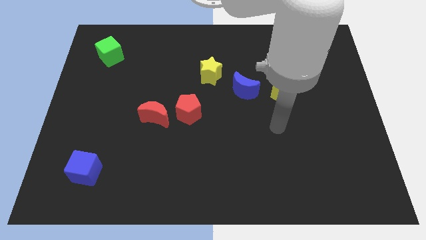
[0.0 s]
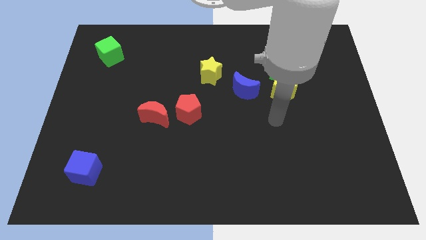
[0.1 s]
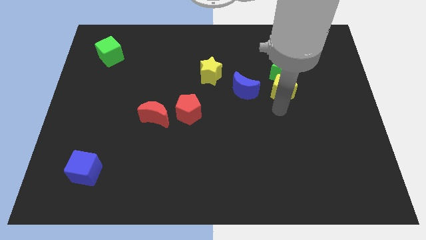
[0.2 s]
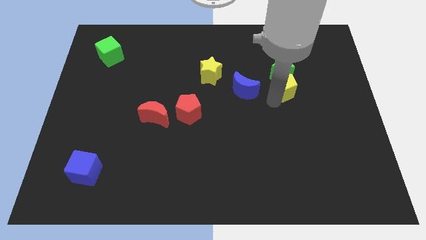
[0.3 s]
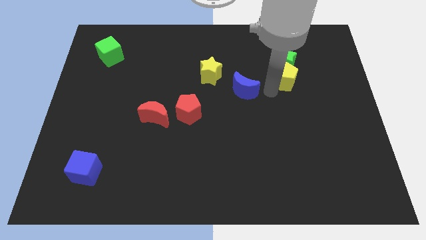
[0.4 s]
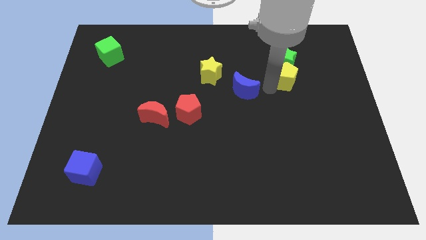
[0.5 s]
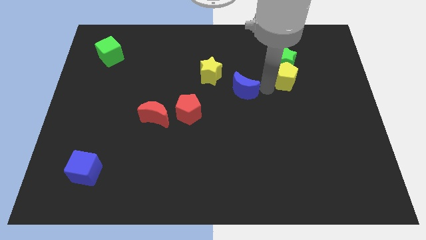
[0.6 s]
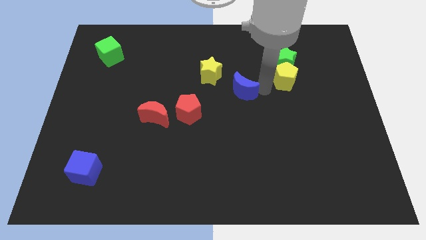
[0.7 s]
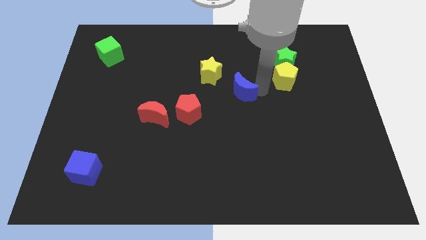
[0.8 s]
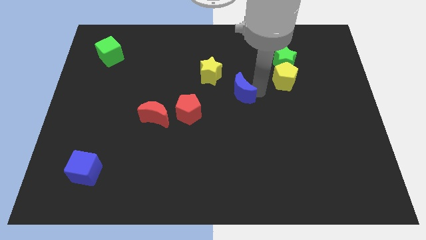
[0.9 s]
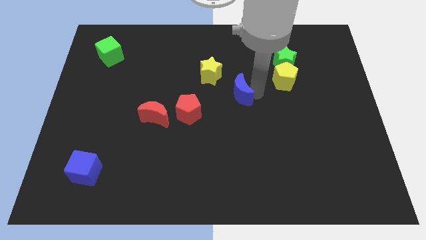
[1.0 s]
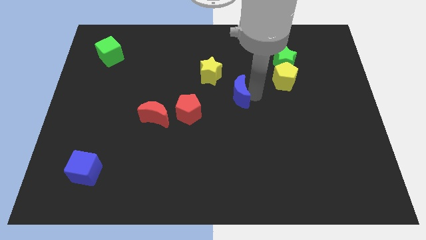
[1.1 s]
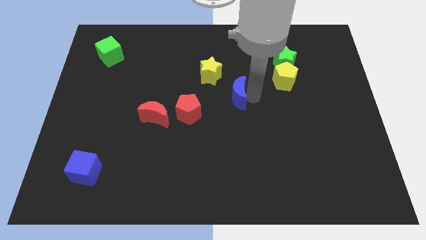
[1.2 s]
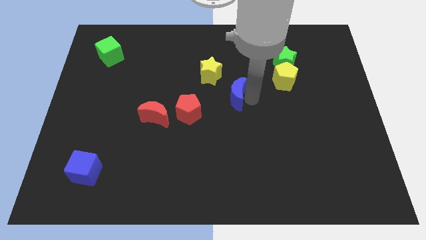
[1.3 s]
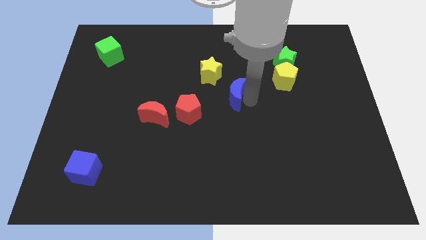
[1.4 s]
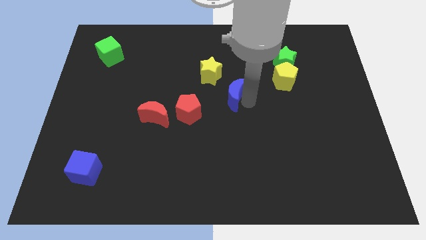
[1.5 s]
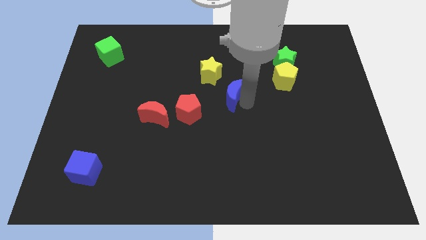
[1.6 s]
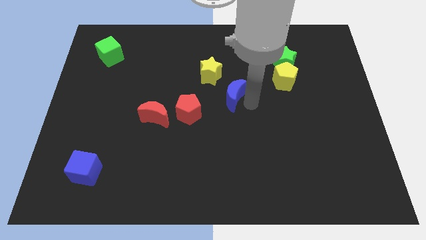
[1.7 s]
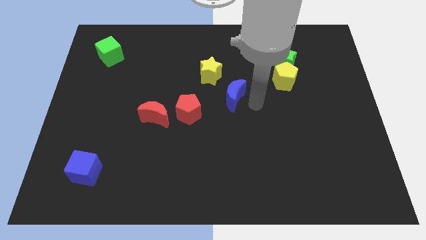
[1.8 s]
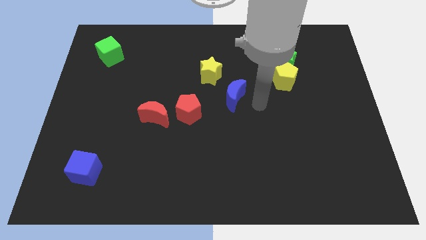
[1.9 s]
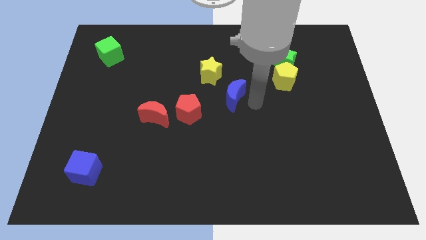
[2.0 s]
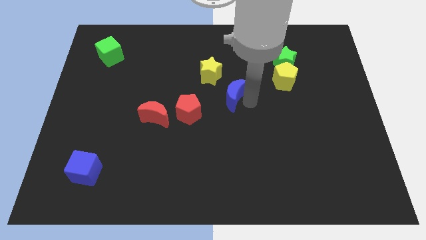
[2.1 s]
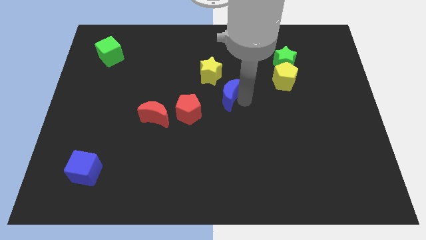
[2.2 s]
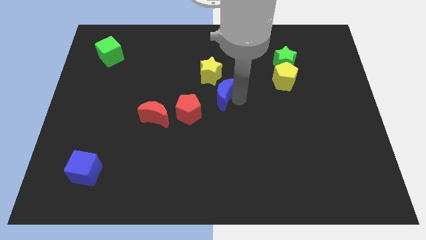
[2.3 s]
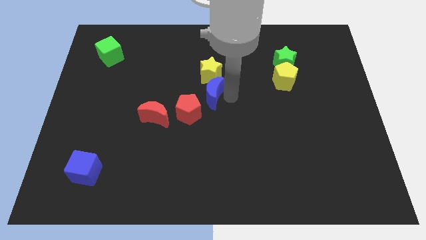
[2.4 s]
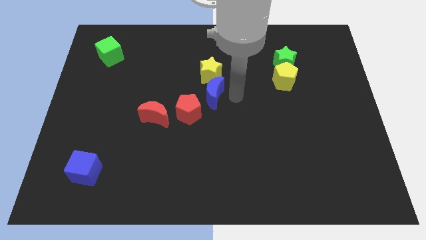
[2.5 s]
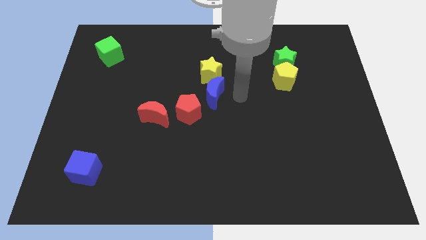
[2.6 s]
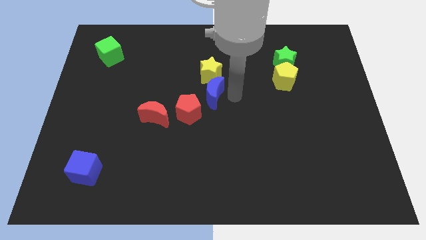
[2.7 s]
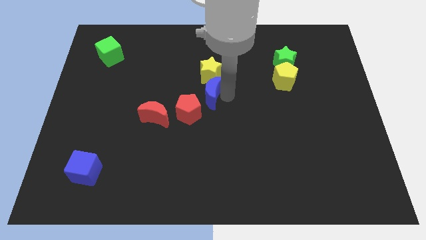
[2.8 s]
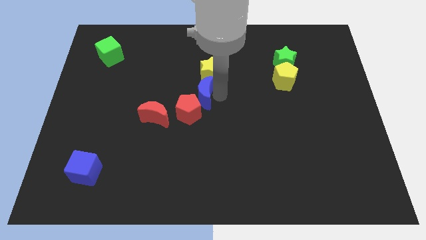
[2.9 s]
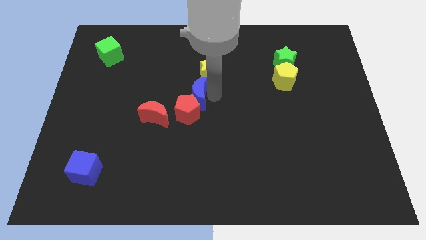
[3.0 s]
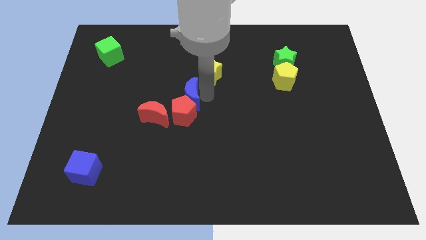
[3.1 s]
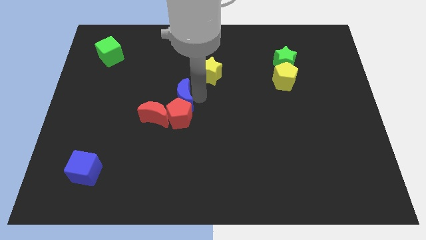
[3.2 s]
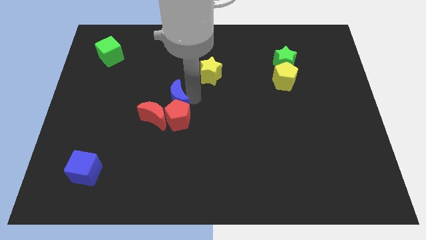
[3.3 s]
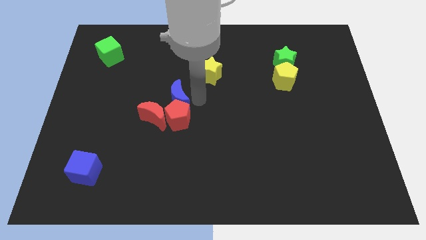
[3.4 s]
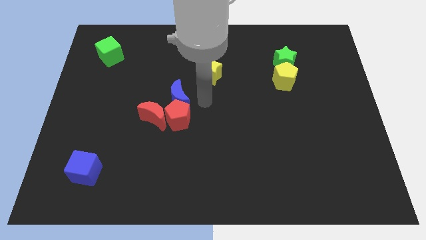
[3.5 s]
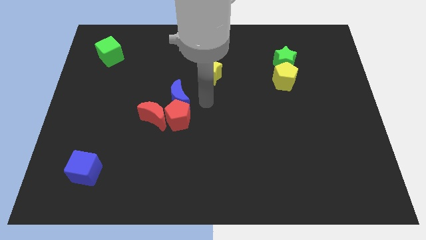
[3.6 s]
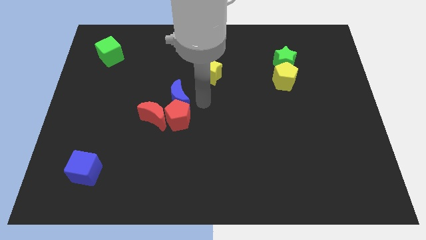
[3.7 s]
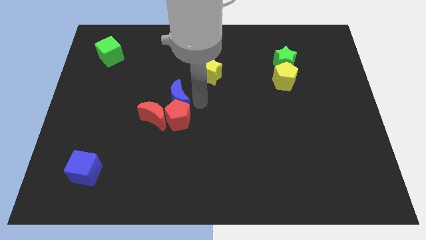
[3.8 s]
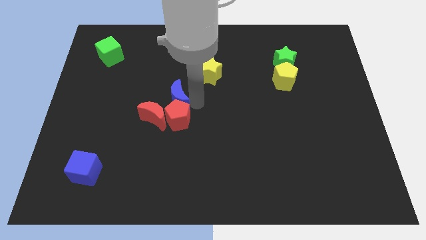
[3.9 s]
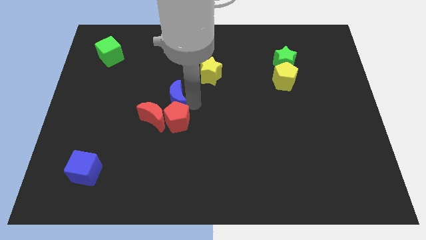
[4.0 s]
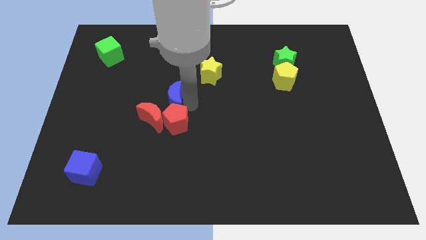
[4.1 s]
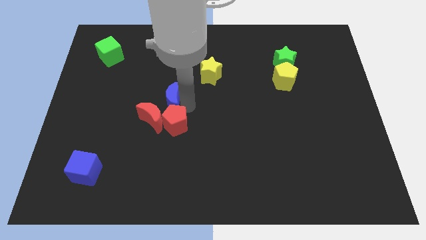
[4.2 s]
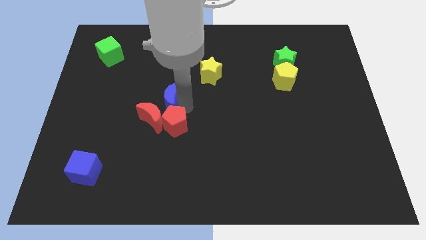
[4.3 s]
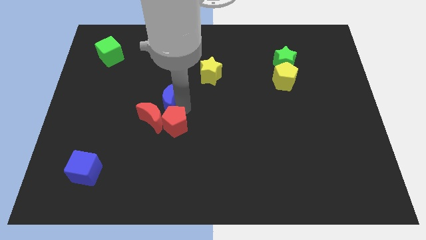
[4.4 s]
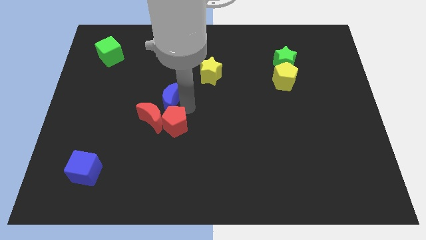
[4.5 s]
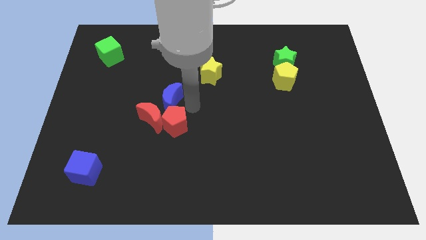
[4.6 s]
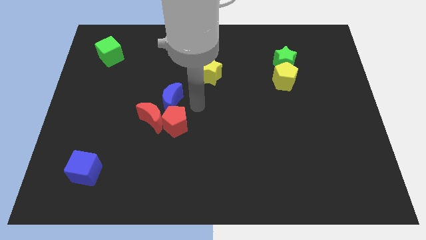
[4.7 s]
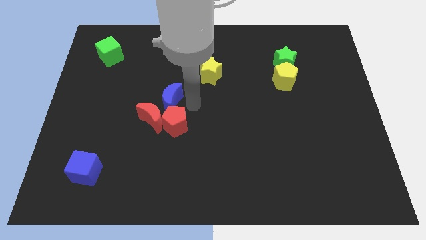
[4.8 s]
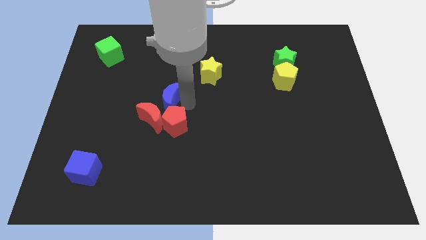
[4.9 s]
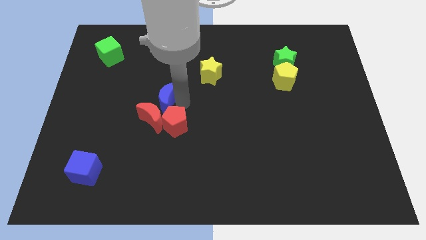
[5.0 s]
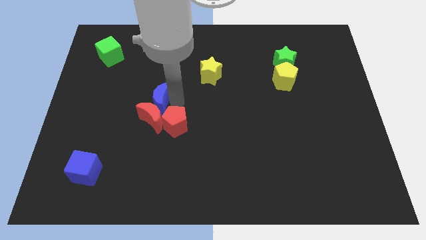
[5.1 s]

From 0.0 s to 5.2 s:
move the blue moon to the top left of the red moon
